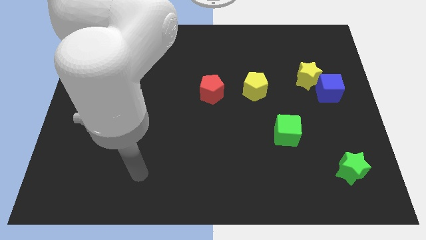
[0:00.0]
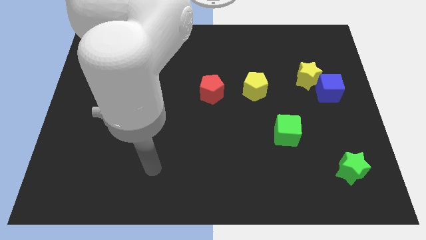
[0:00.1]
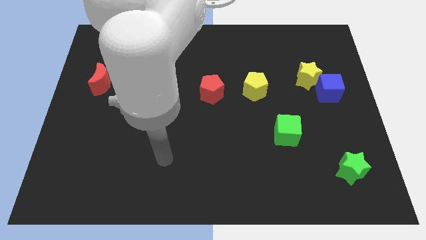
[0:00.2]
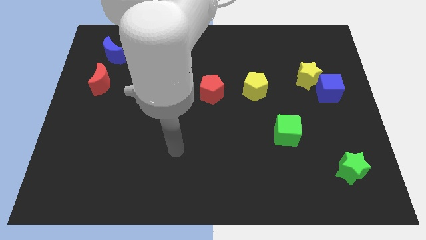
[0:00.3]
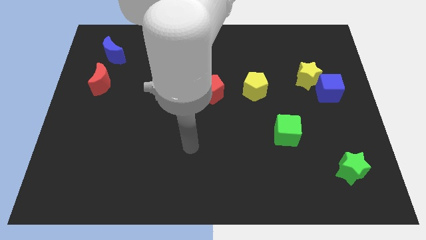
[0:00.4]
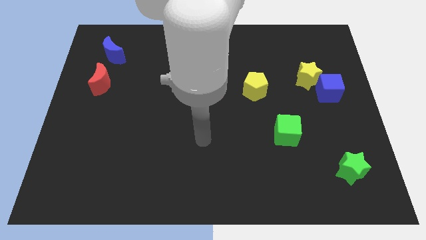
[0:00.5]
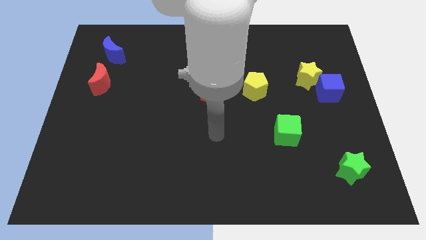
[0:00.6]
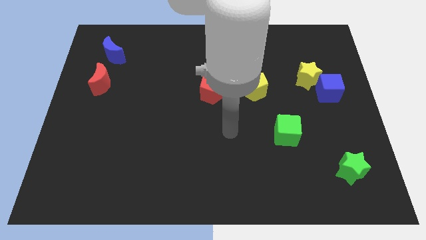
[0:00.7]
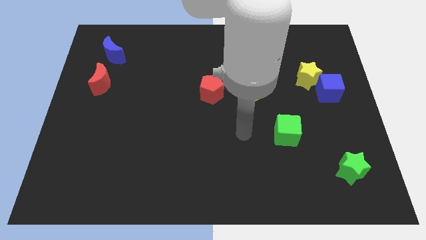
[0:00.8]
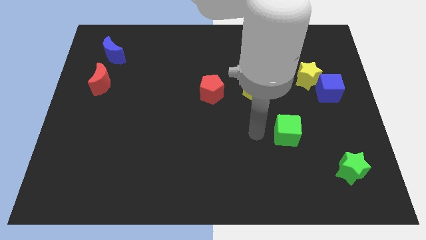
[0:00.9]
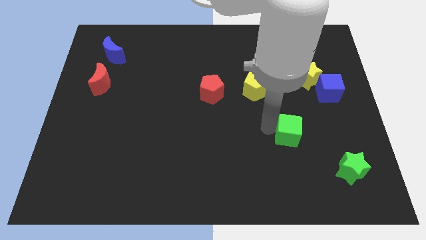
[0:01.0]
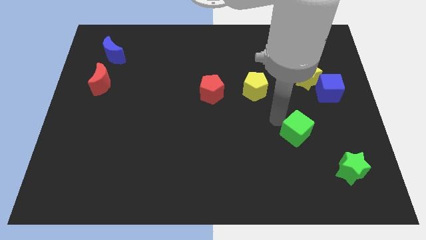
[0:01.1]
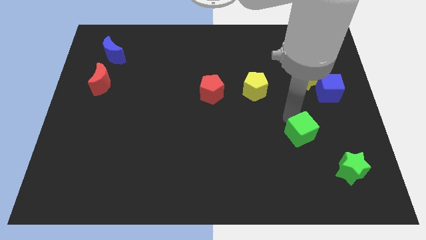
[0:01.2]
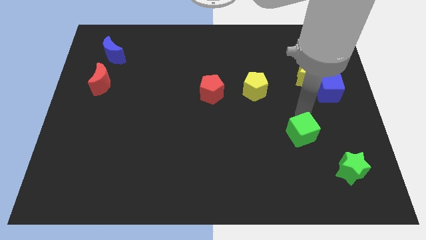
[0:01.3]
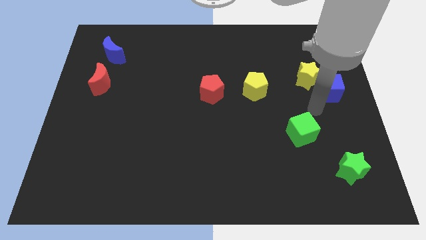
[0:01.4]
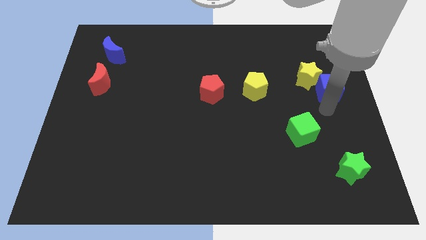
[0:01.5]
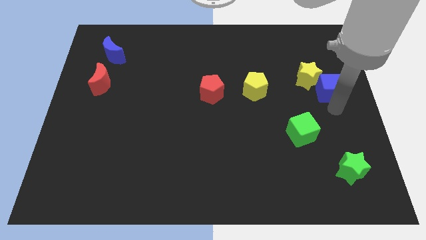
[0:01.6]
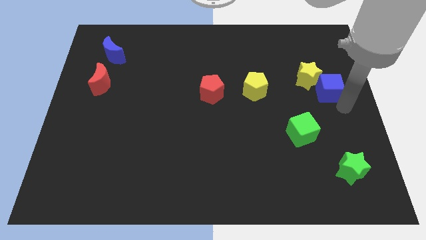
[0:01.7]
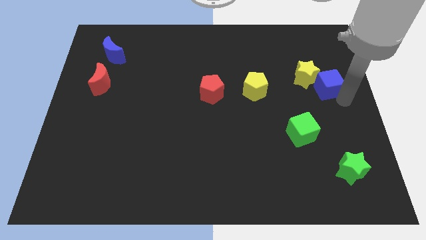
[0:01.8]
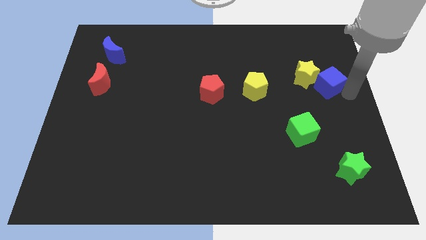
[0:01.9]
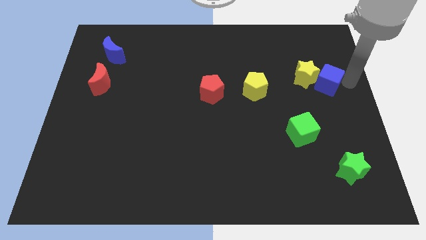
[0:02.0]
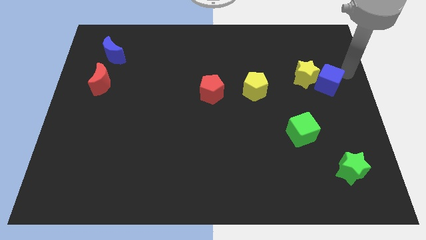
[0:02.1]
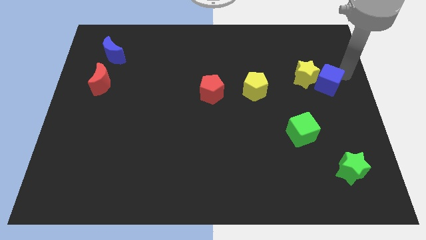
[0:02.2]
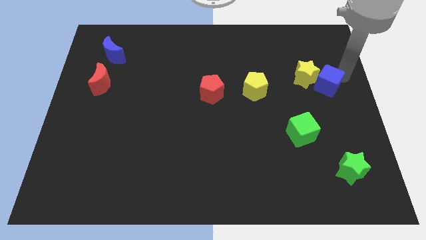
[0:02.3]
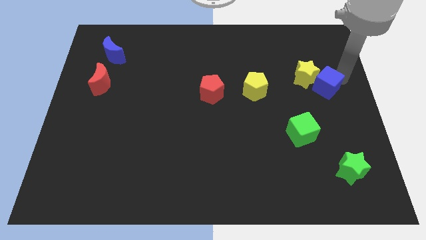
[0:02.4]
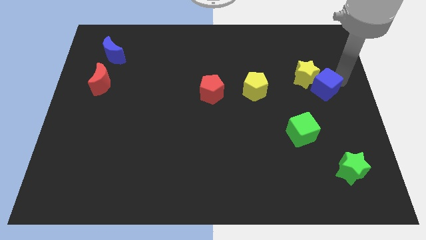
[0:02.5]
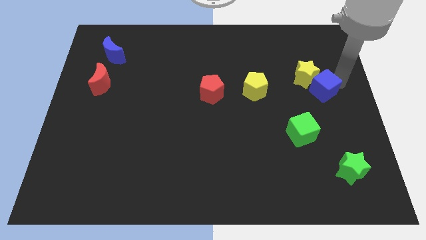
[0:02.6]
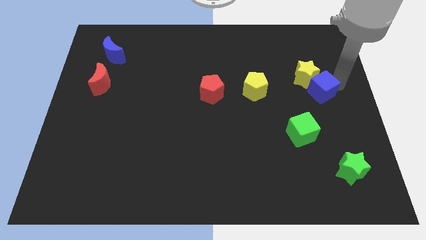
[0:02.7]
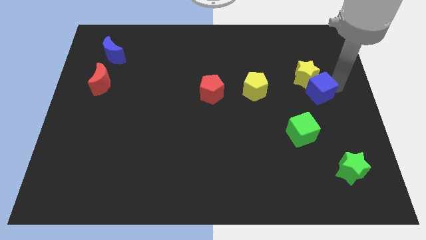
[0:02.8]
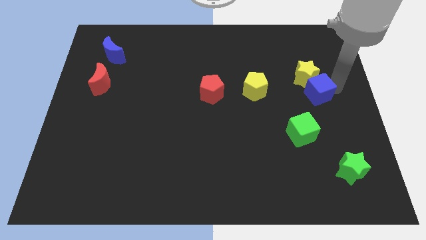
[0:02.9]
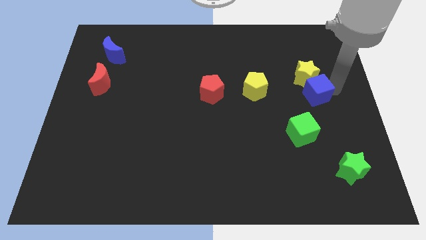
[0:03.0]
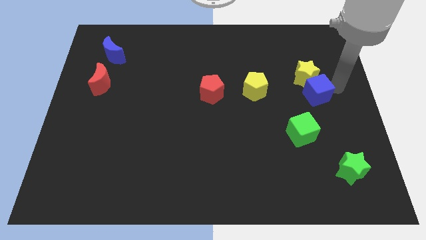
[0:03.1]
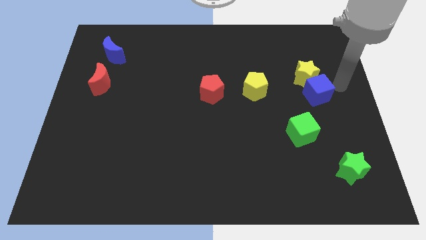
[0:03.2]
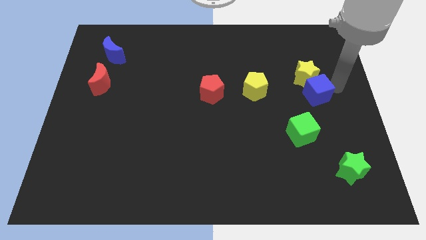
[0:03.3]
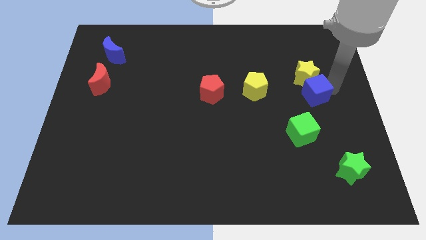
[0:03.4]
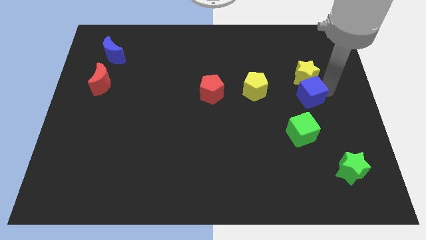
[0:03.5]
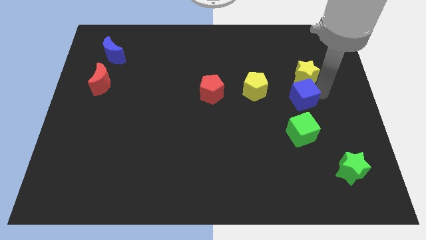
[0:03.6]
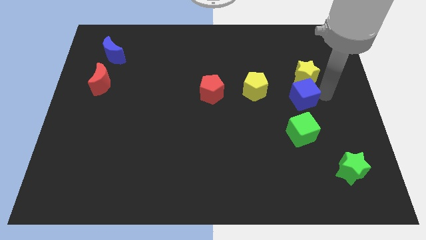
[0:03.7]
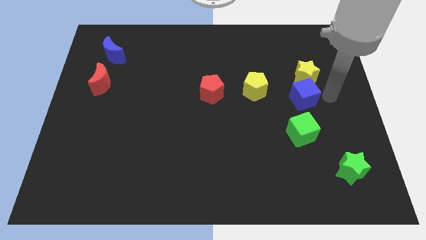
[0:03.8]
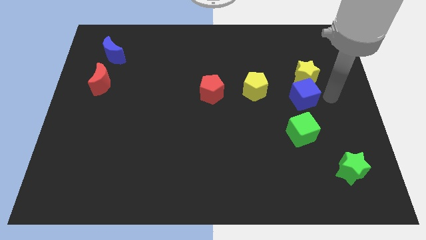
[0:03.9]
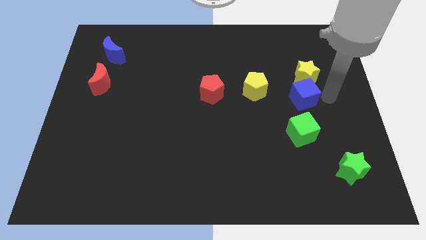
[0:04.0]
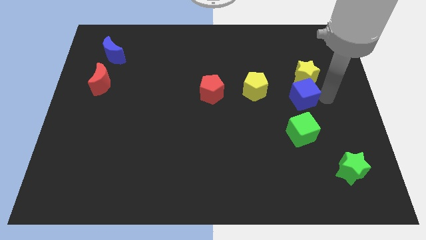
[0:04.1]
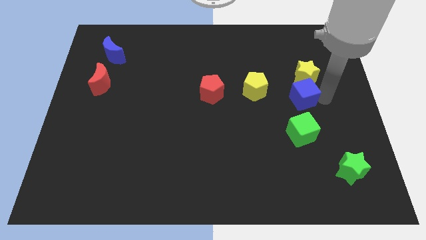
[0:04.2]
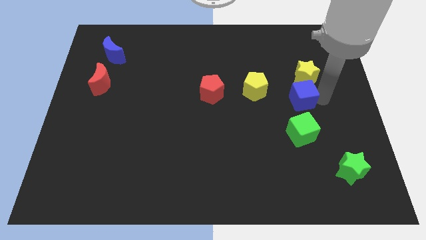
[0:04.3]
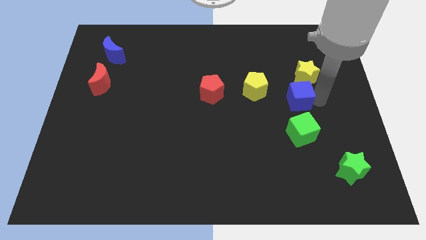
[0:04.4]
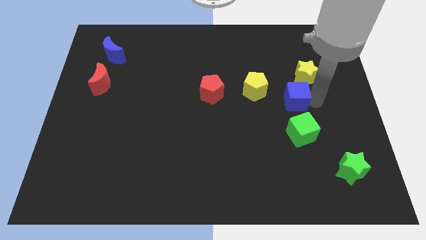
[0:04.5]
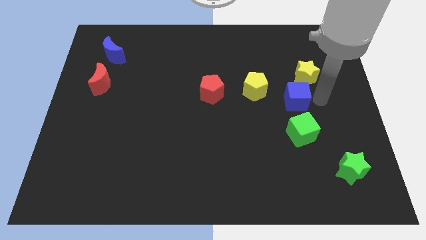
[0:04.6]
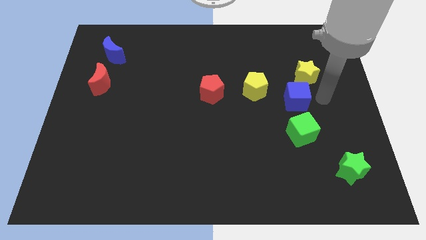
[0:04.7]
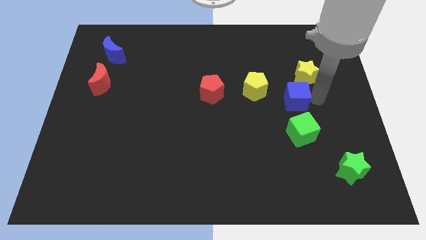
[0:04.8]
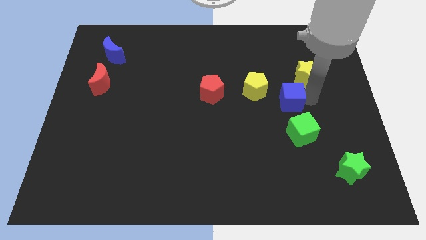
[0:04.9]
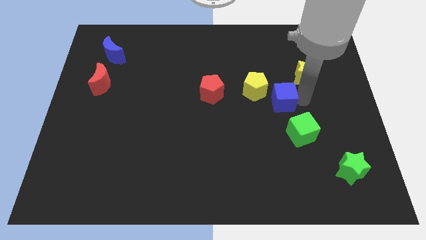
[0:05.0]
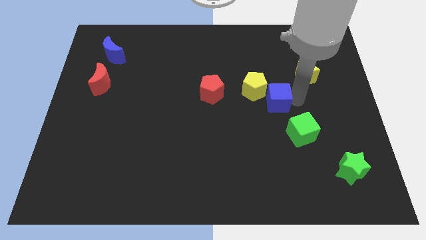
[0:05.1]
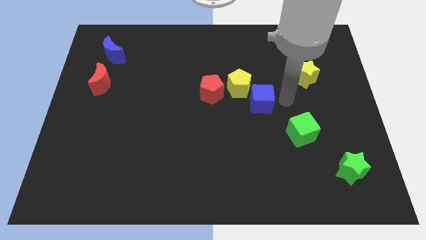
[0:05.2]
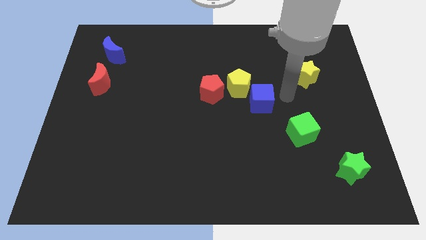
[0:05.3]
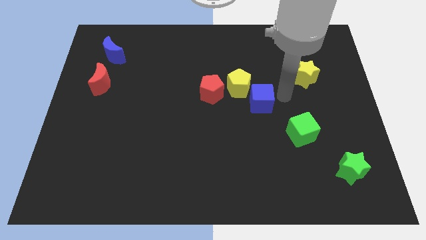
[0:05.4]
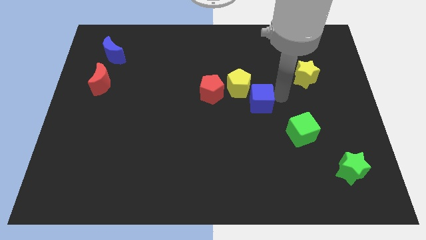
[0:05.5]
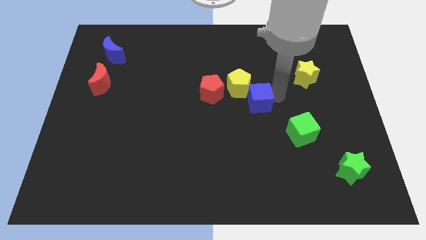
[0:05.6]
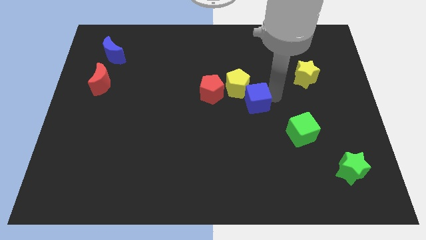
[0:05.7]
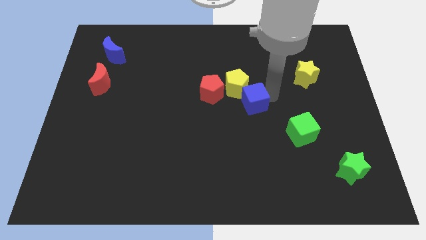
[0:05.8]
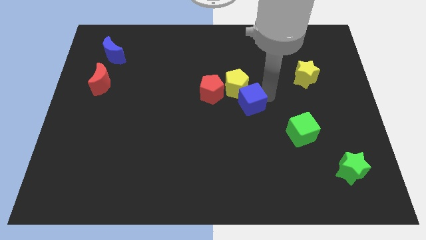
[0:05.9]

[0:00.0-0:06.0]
move the blue cube diagonally down and to the right of the red pentagon

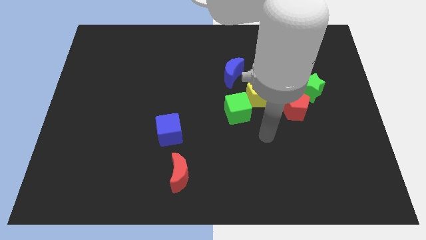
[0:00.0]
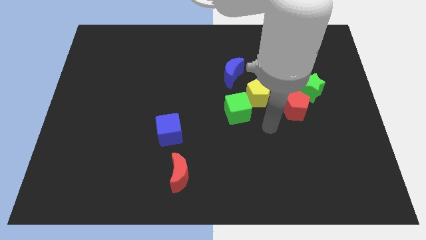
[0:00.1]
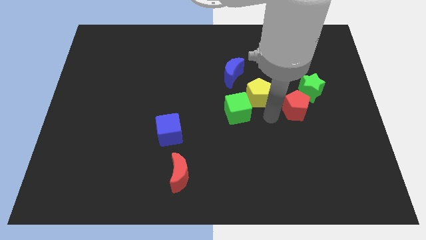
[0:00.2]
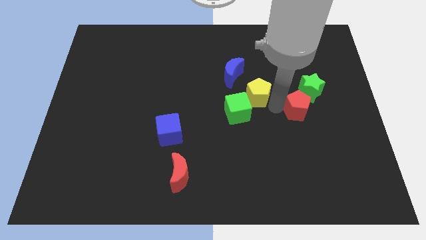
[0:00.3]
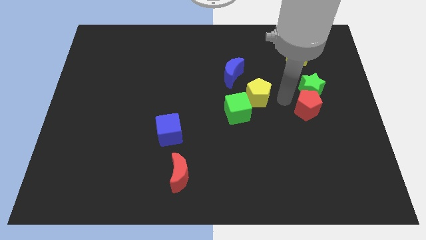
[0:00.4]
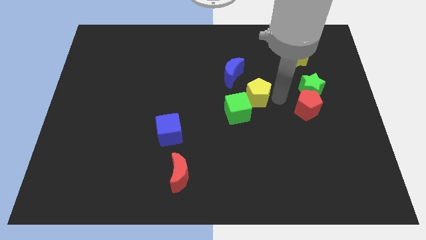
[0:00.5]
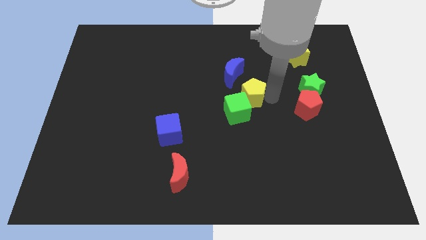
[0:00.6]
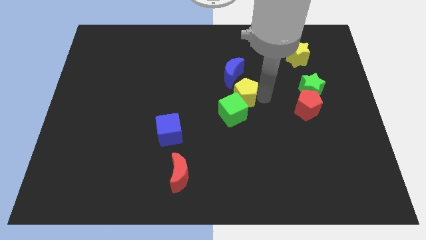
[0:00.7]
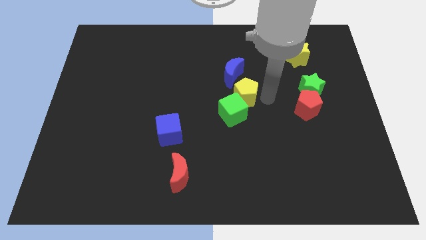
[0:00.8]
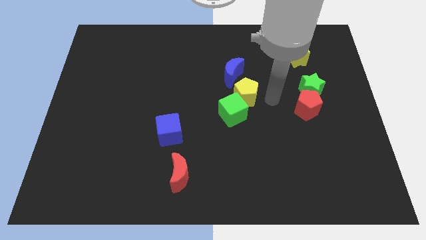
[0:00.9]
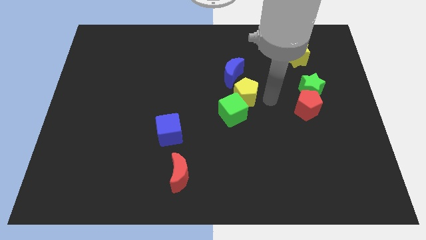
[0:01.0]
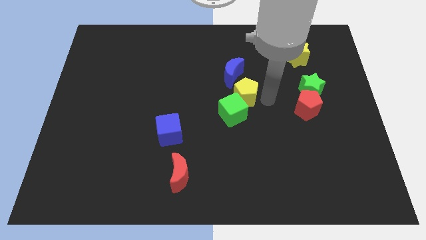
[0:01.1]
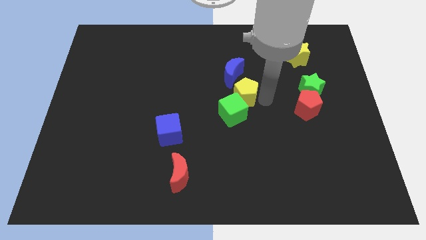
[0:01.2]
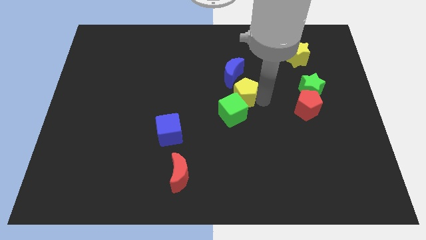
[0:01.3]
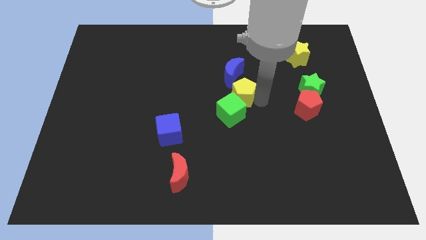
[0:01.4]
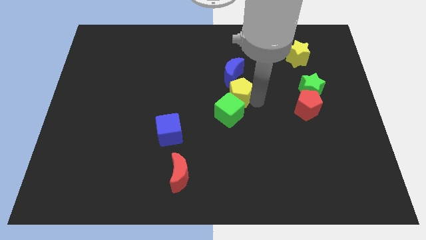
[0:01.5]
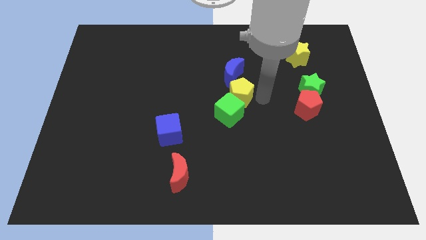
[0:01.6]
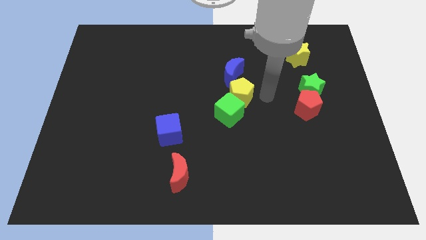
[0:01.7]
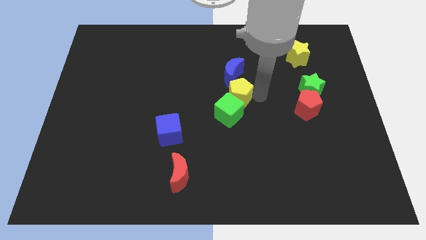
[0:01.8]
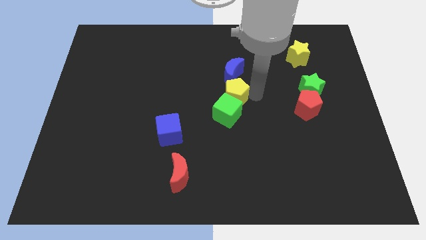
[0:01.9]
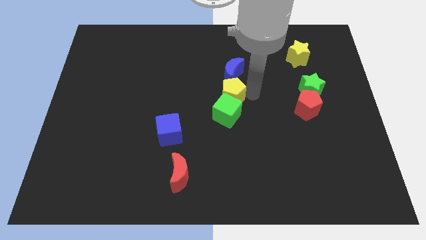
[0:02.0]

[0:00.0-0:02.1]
push the yellow pentagon to the top left of the green cube
